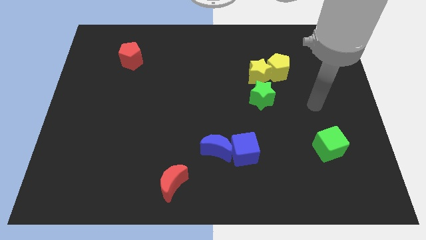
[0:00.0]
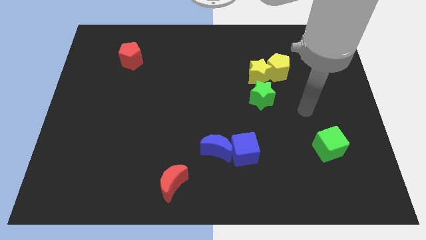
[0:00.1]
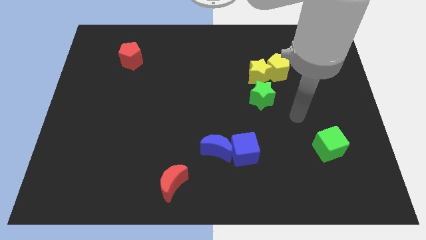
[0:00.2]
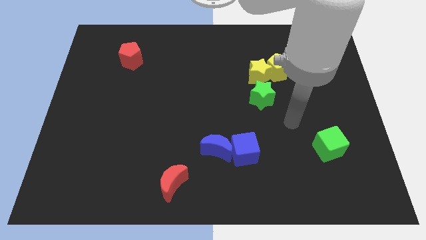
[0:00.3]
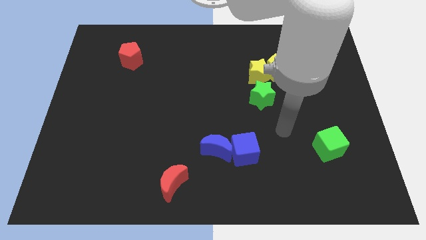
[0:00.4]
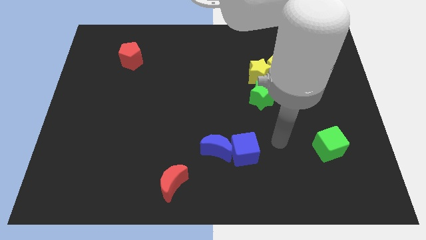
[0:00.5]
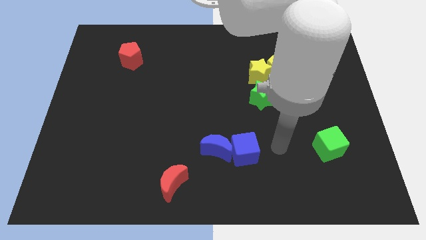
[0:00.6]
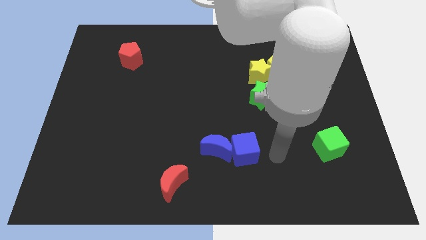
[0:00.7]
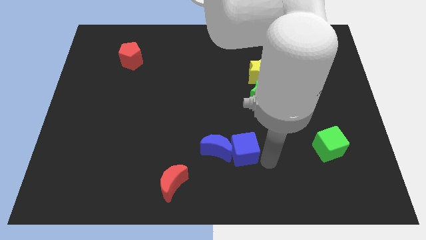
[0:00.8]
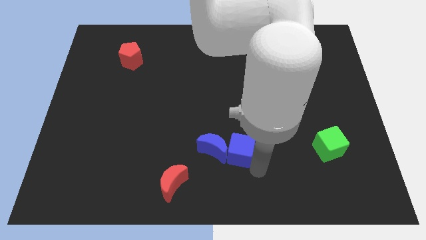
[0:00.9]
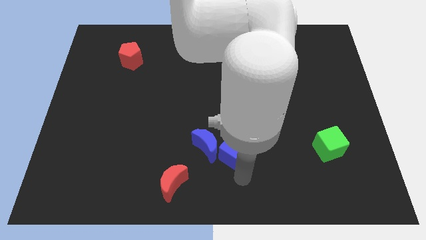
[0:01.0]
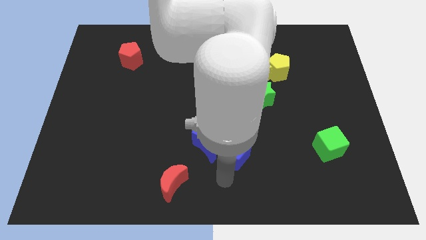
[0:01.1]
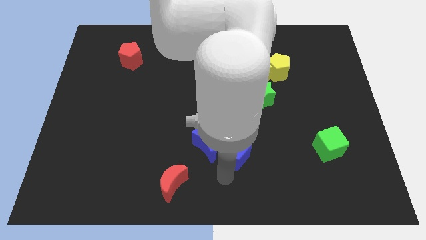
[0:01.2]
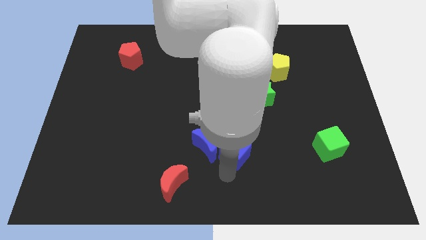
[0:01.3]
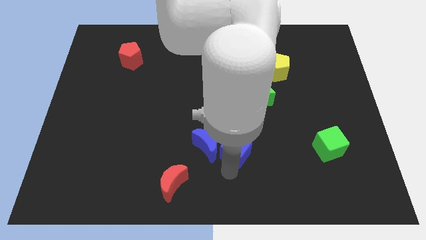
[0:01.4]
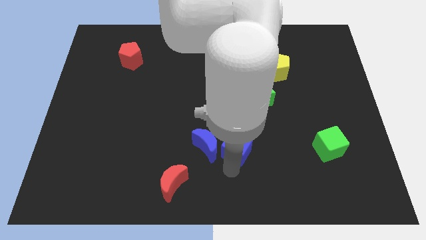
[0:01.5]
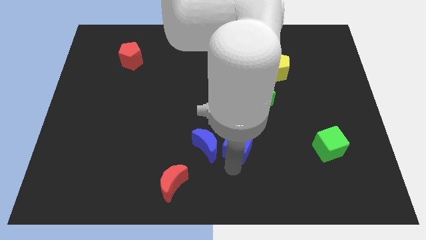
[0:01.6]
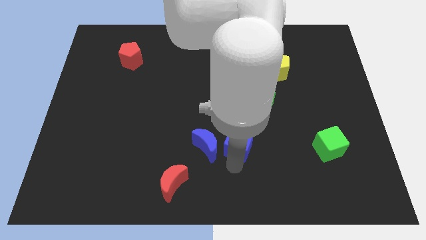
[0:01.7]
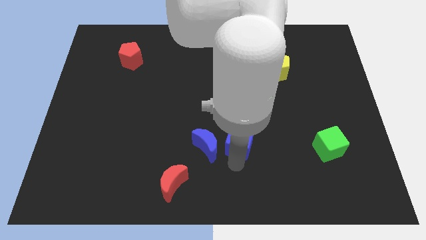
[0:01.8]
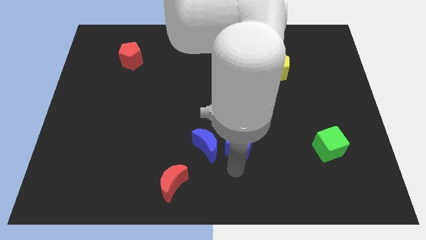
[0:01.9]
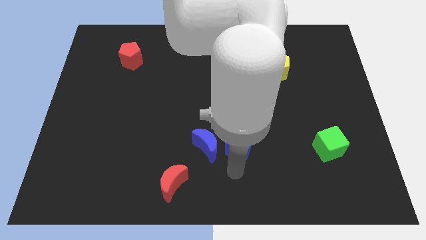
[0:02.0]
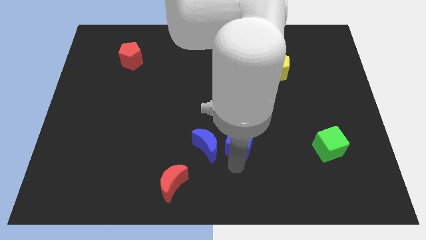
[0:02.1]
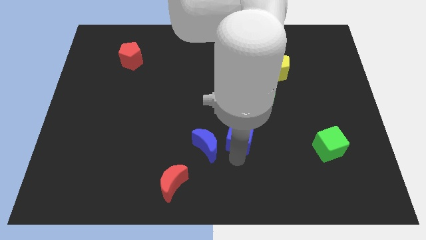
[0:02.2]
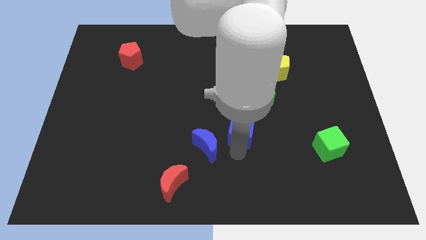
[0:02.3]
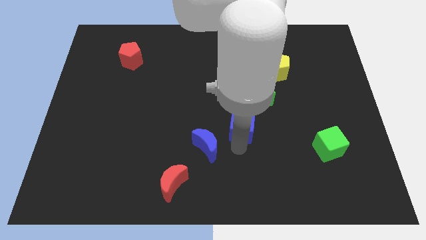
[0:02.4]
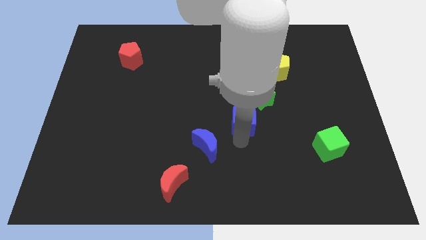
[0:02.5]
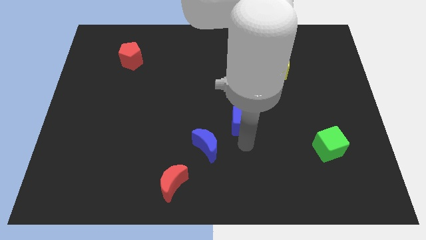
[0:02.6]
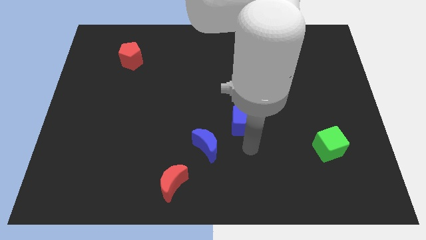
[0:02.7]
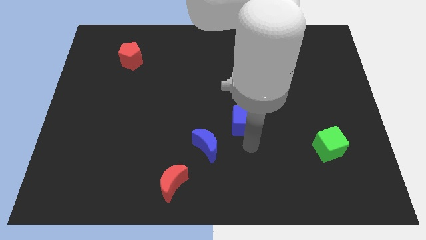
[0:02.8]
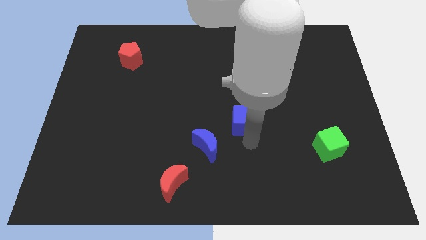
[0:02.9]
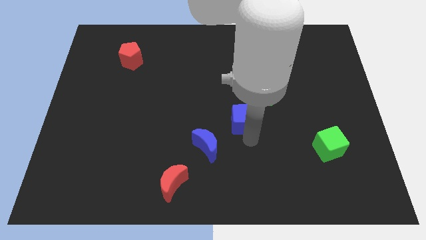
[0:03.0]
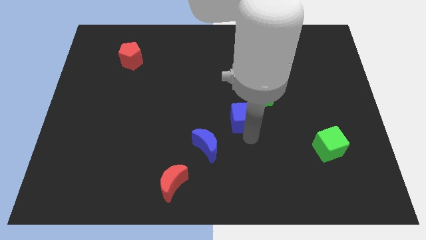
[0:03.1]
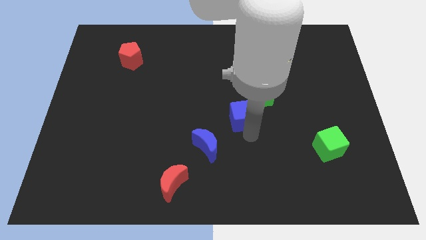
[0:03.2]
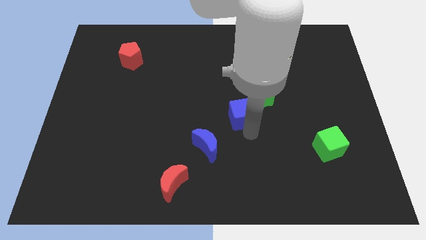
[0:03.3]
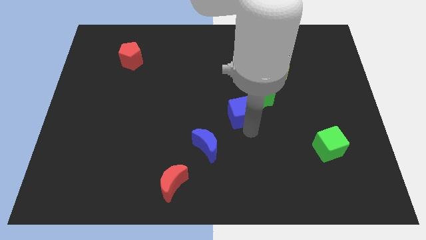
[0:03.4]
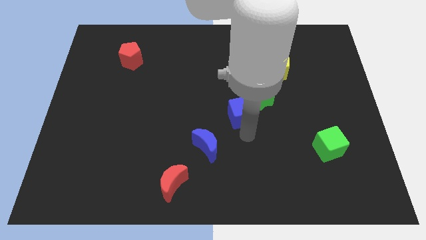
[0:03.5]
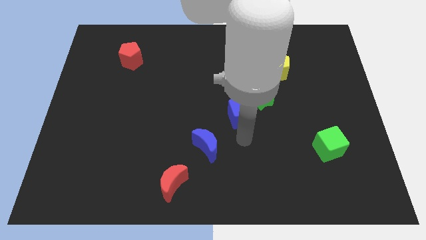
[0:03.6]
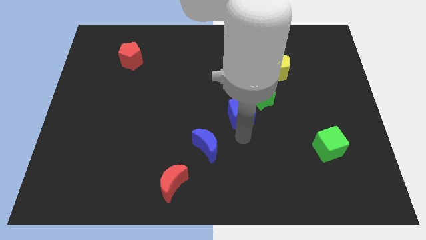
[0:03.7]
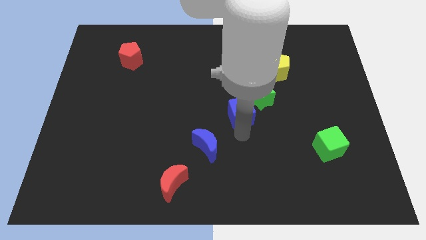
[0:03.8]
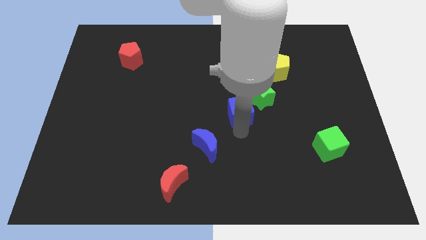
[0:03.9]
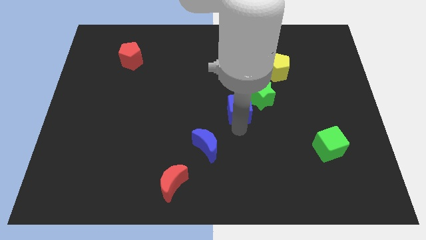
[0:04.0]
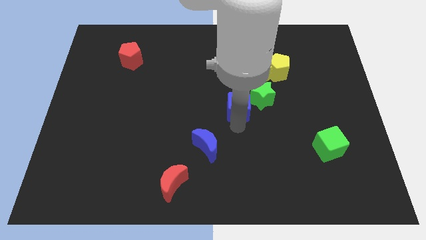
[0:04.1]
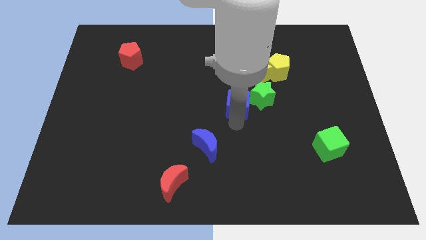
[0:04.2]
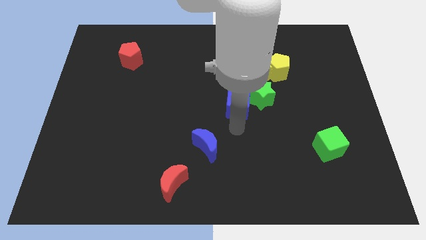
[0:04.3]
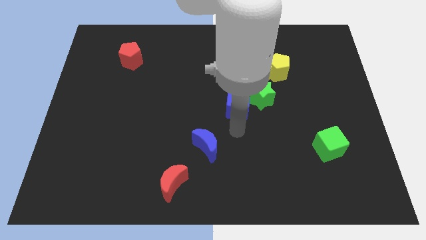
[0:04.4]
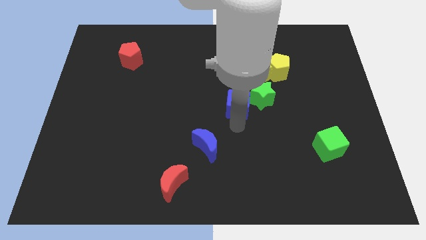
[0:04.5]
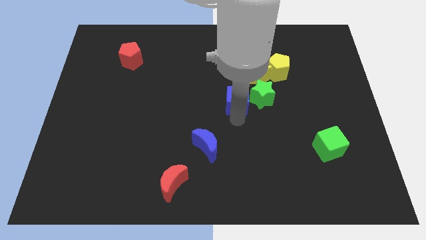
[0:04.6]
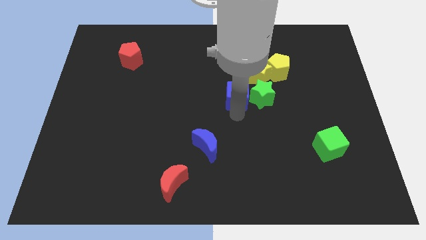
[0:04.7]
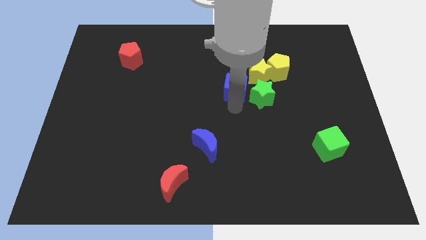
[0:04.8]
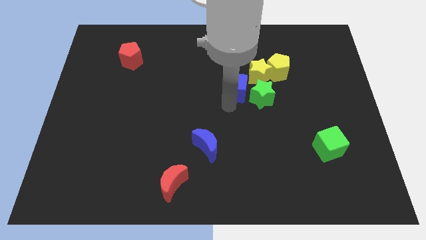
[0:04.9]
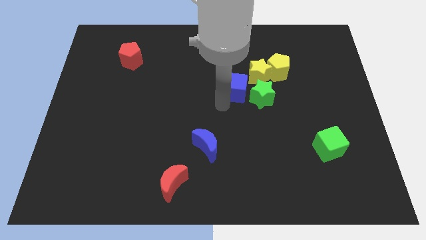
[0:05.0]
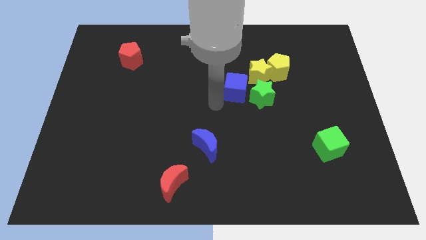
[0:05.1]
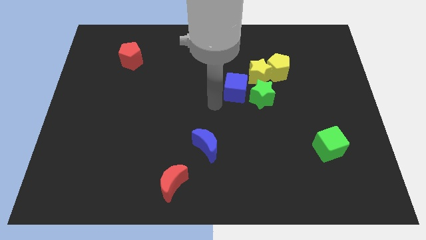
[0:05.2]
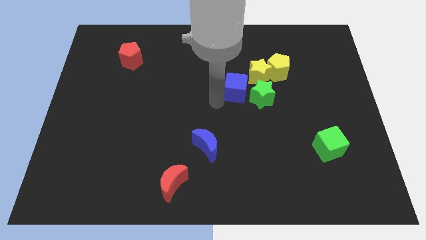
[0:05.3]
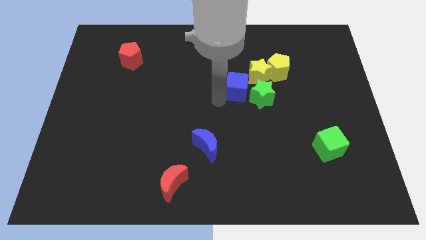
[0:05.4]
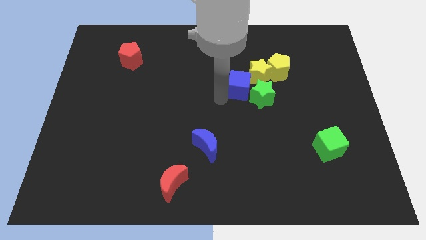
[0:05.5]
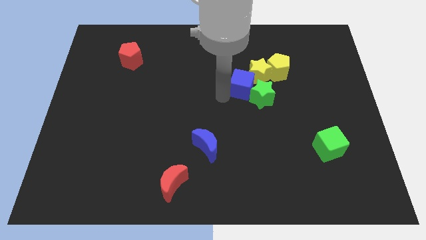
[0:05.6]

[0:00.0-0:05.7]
move the blue cube to the yellow star

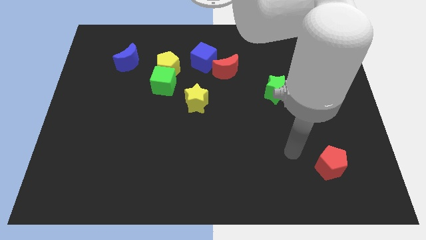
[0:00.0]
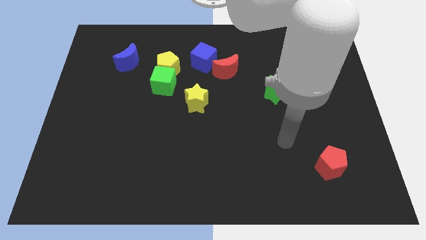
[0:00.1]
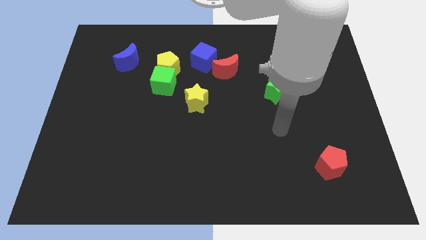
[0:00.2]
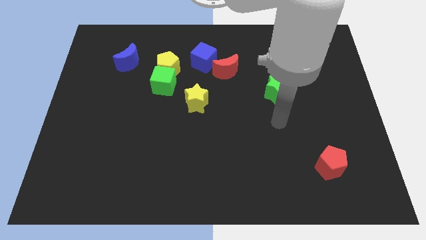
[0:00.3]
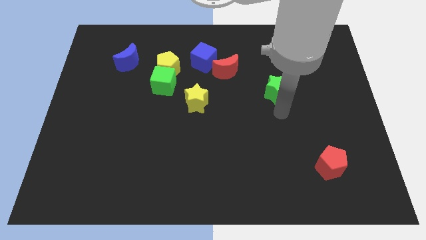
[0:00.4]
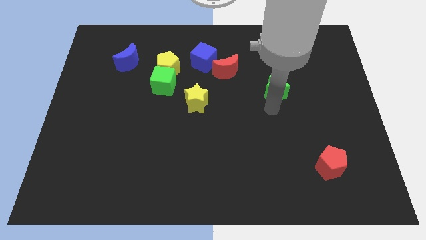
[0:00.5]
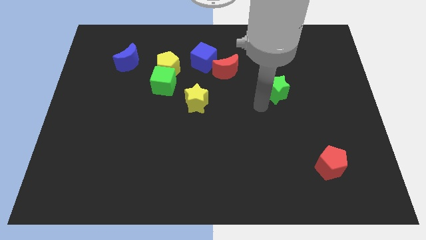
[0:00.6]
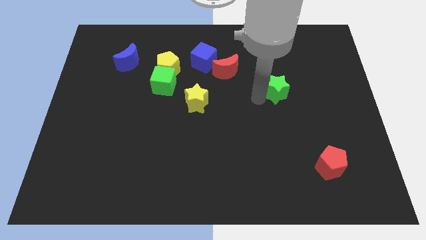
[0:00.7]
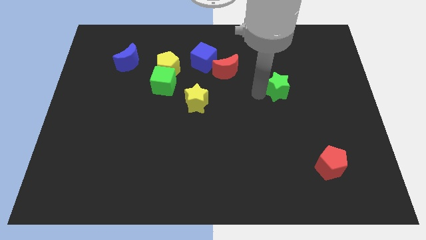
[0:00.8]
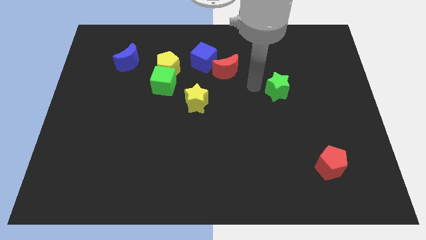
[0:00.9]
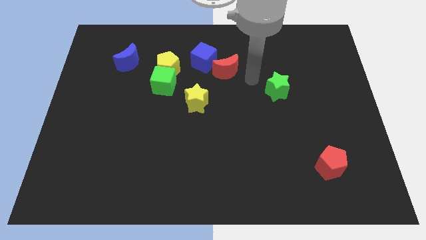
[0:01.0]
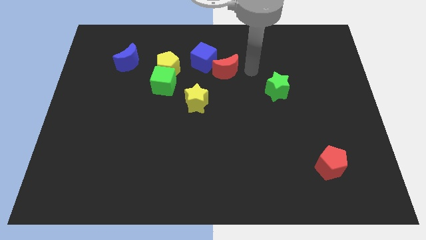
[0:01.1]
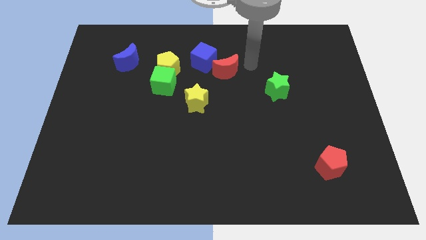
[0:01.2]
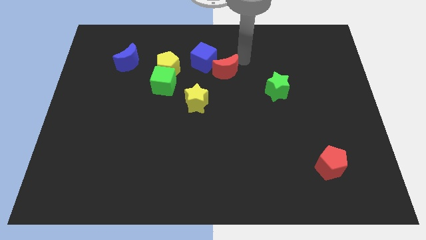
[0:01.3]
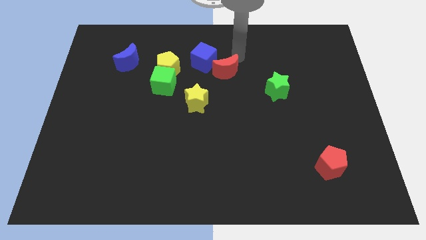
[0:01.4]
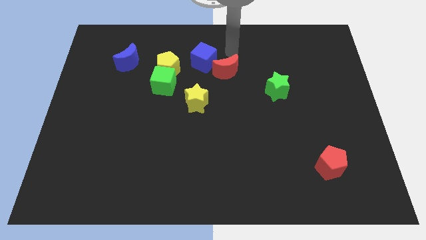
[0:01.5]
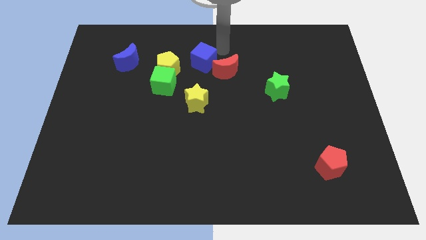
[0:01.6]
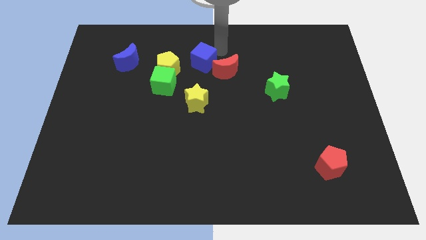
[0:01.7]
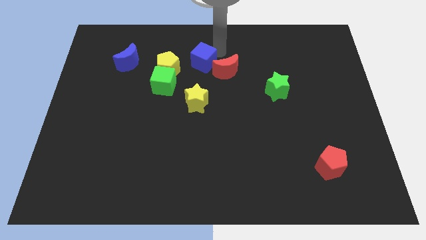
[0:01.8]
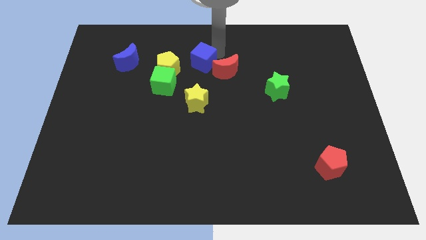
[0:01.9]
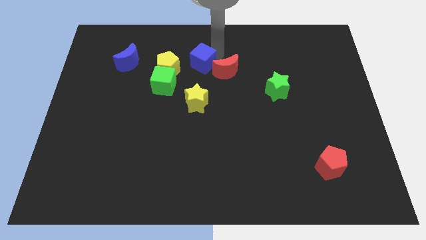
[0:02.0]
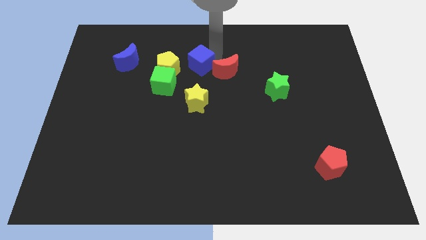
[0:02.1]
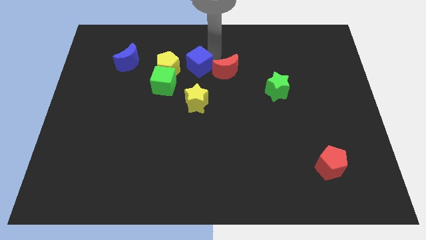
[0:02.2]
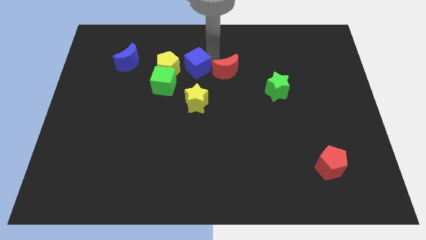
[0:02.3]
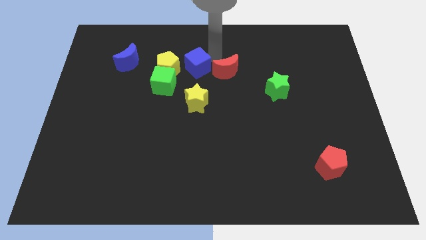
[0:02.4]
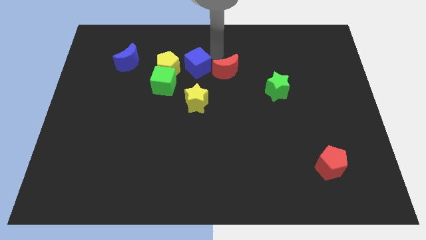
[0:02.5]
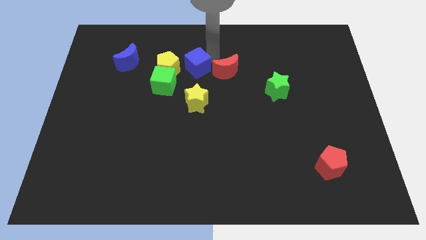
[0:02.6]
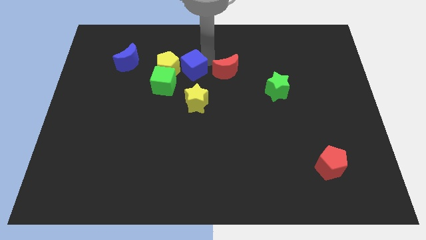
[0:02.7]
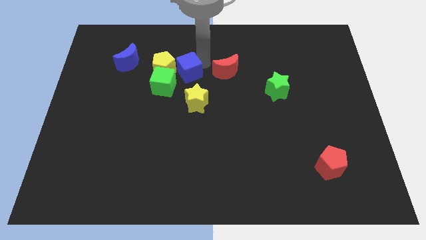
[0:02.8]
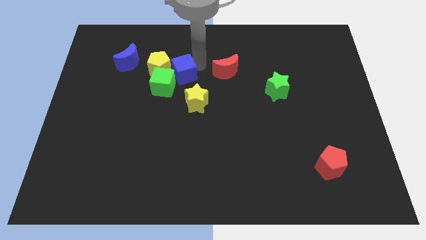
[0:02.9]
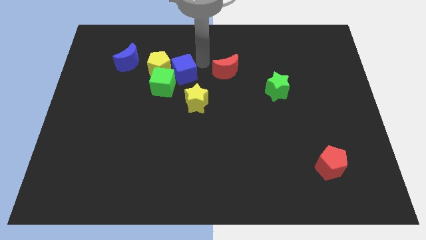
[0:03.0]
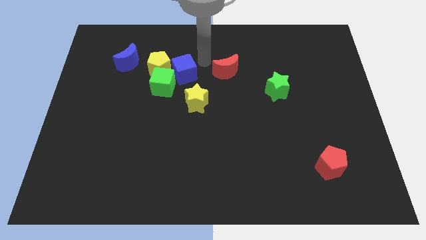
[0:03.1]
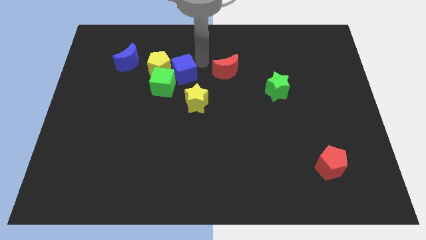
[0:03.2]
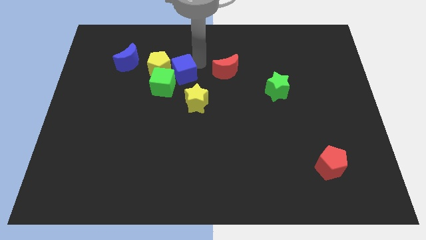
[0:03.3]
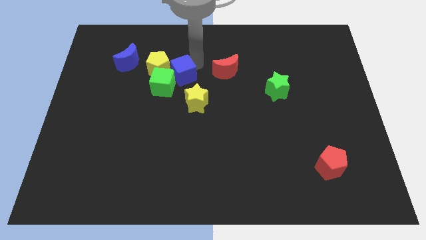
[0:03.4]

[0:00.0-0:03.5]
slide the blue cube towards the green cube
